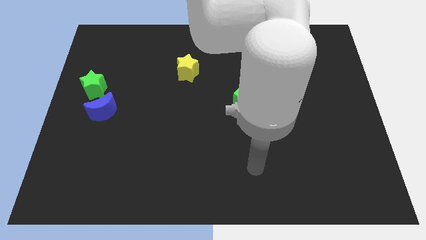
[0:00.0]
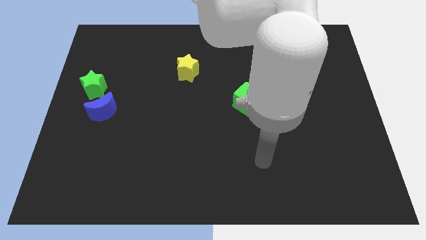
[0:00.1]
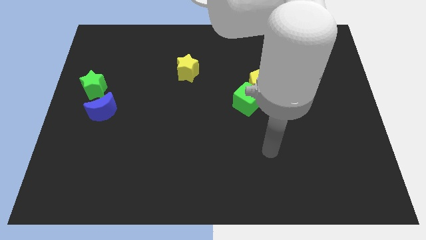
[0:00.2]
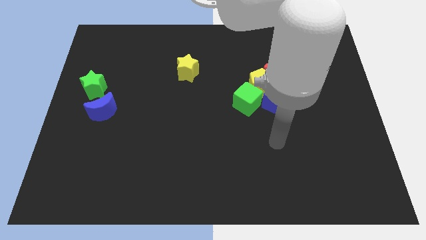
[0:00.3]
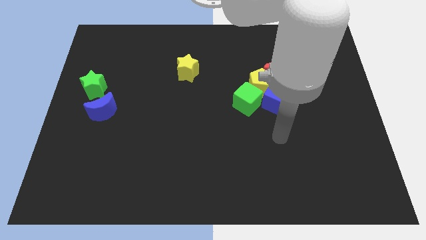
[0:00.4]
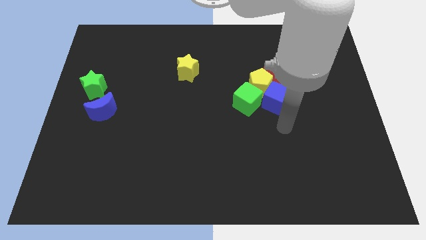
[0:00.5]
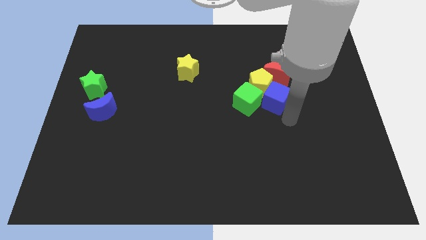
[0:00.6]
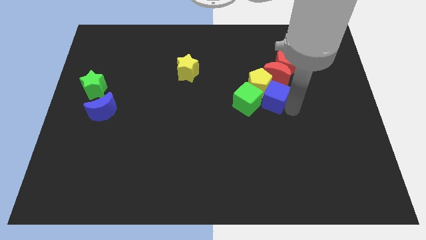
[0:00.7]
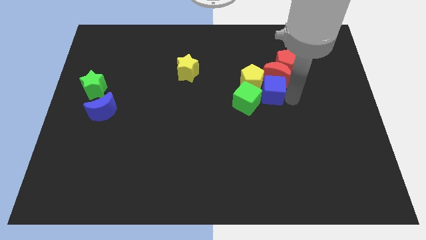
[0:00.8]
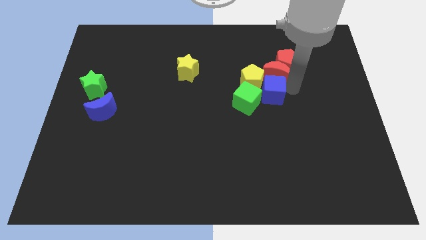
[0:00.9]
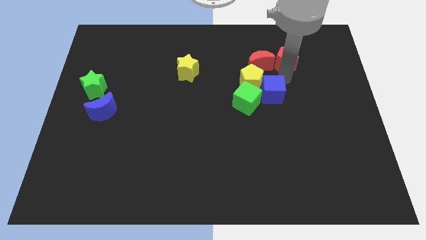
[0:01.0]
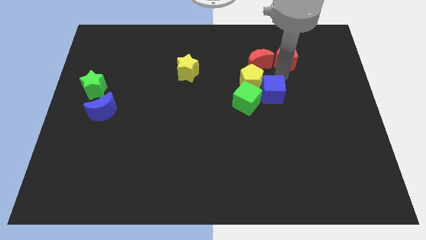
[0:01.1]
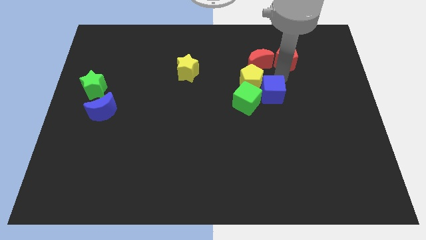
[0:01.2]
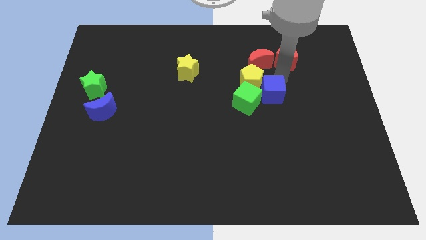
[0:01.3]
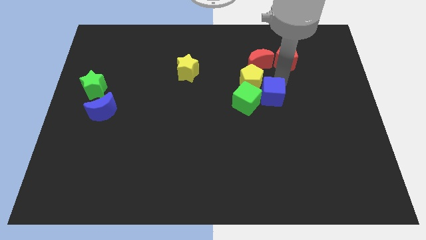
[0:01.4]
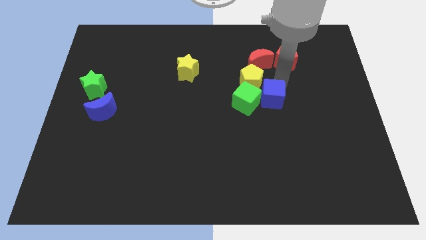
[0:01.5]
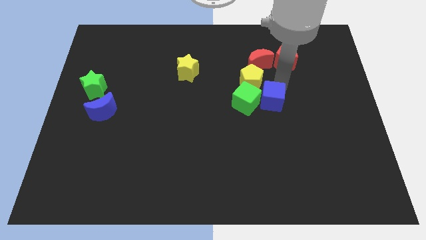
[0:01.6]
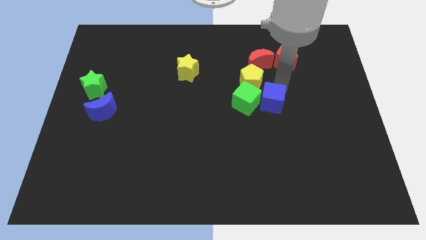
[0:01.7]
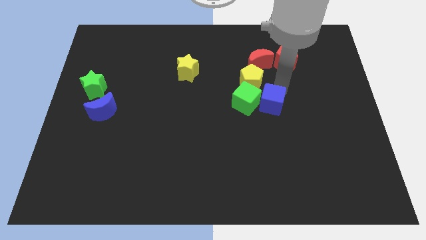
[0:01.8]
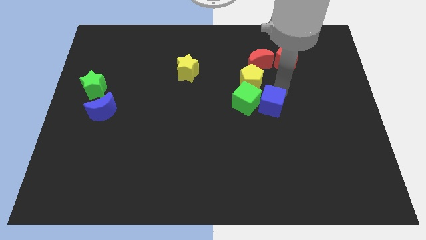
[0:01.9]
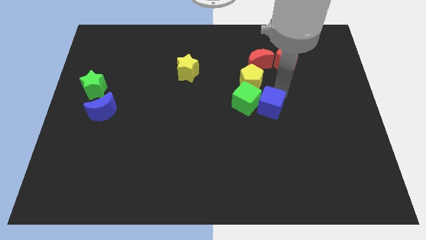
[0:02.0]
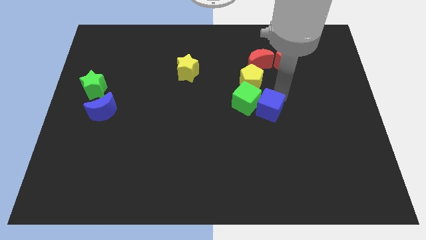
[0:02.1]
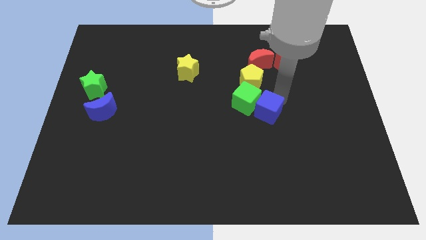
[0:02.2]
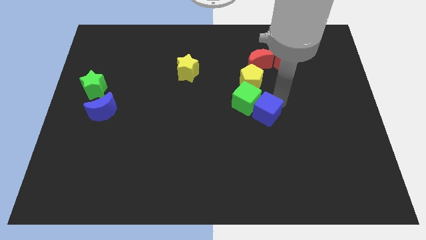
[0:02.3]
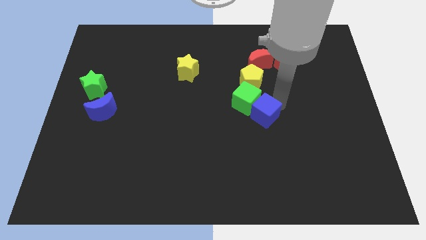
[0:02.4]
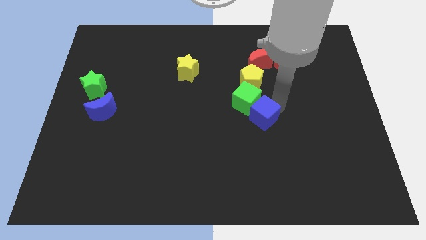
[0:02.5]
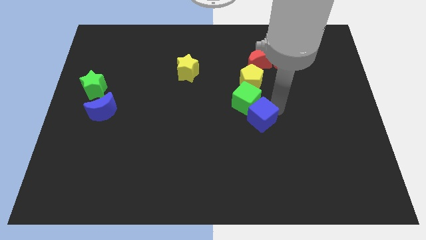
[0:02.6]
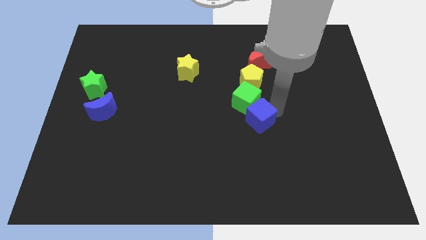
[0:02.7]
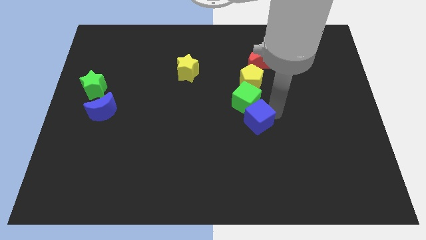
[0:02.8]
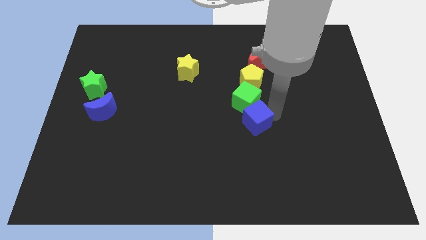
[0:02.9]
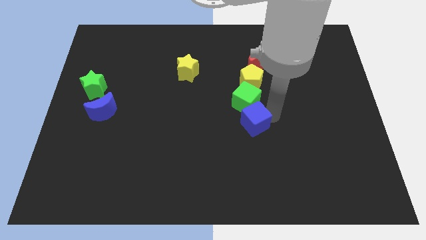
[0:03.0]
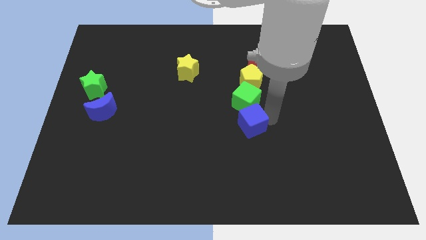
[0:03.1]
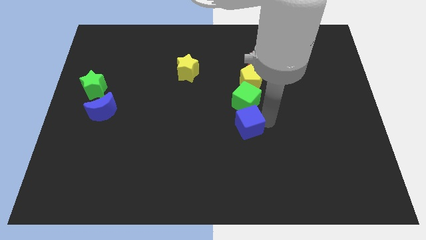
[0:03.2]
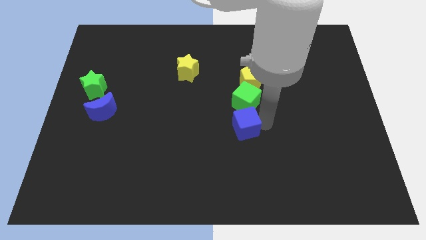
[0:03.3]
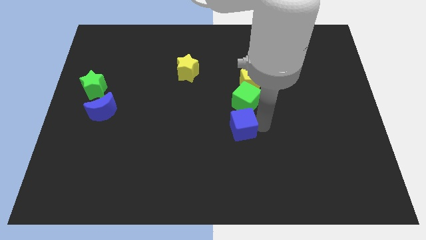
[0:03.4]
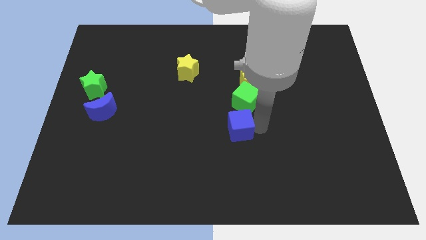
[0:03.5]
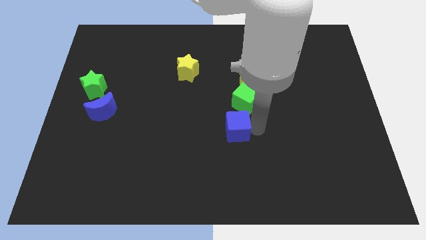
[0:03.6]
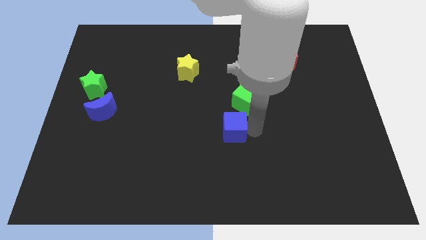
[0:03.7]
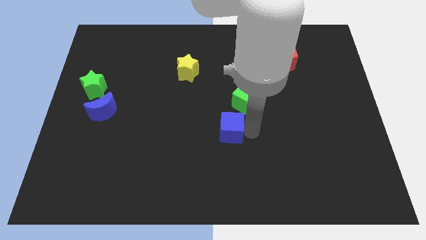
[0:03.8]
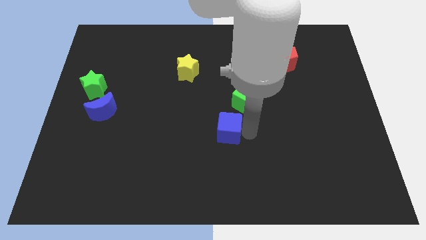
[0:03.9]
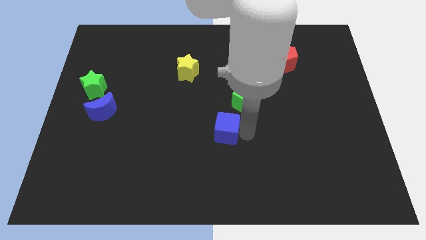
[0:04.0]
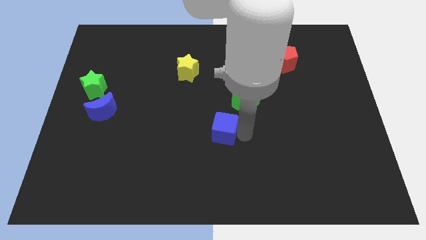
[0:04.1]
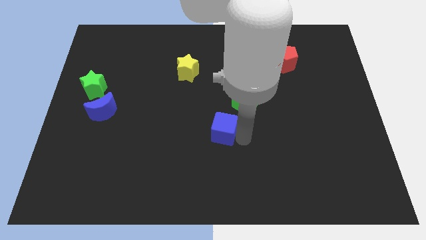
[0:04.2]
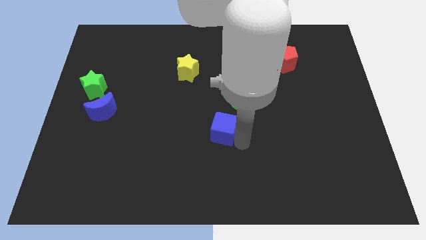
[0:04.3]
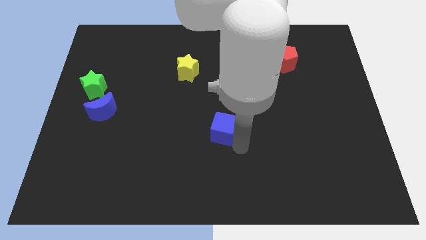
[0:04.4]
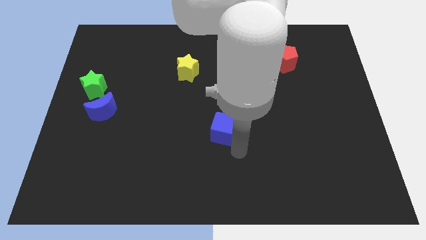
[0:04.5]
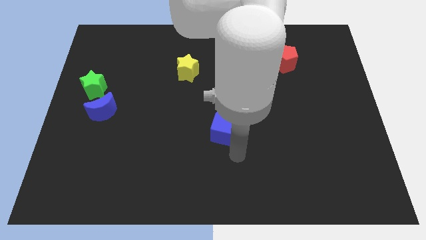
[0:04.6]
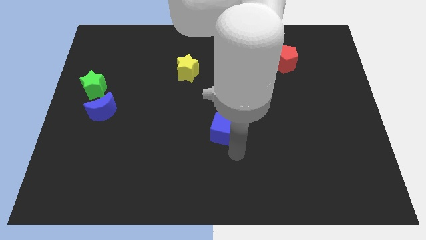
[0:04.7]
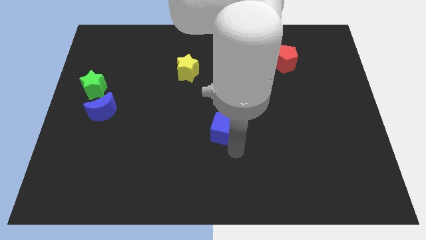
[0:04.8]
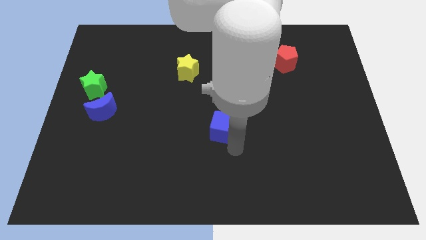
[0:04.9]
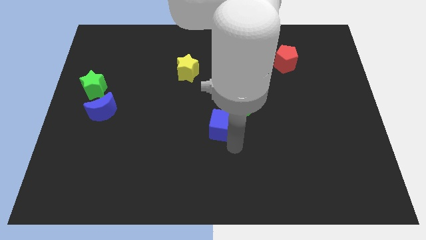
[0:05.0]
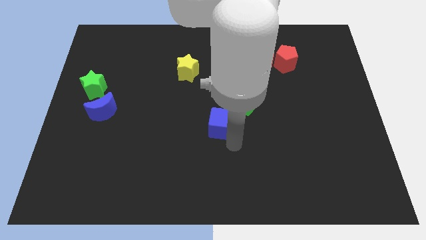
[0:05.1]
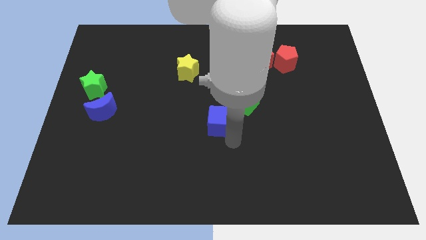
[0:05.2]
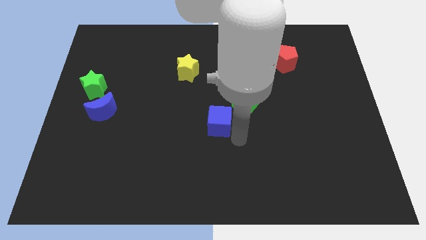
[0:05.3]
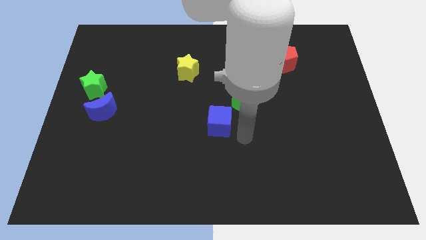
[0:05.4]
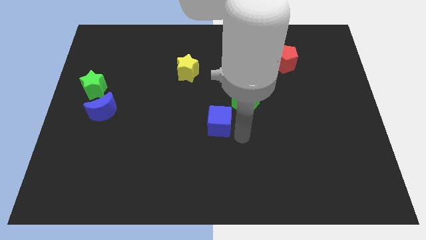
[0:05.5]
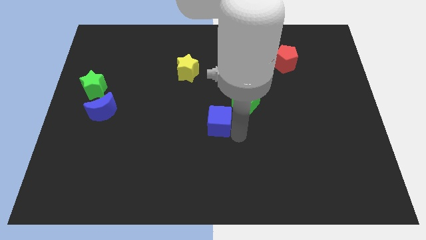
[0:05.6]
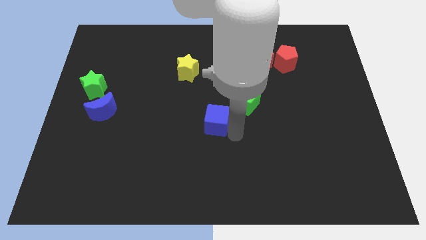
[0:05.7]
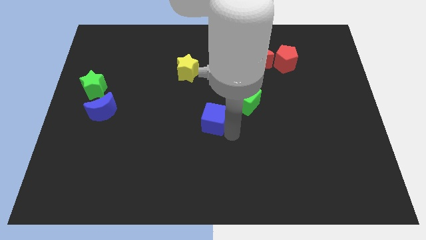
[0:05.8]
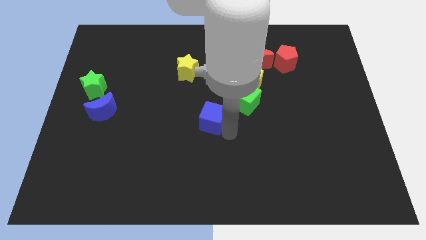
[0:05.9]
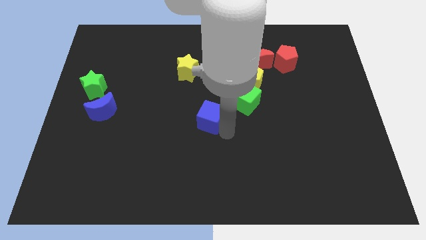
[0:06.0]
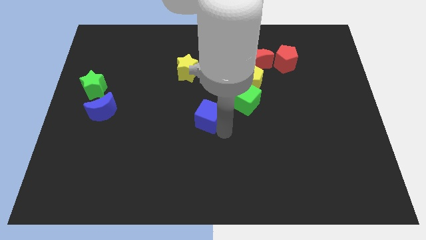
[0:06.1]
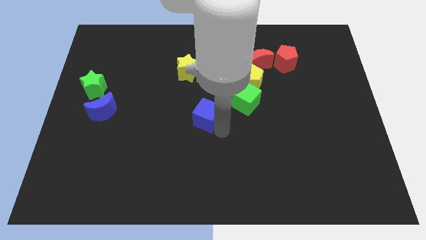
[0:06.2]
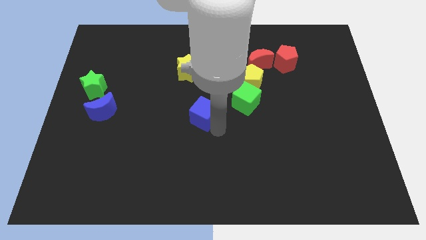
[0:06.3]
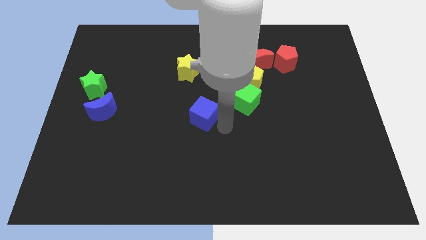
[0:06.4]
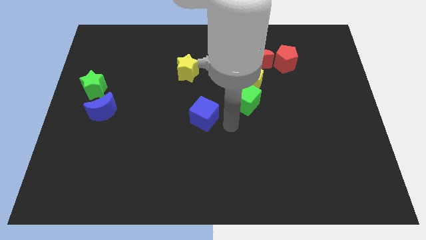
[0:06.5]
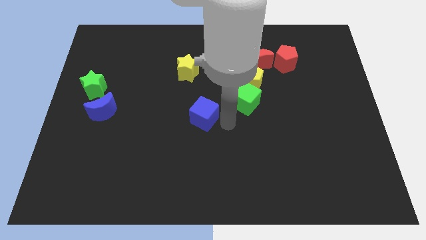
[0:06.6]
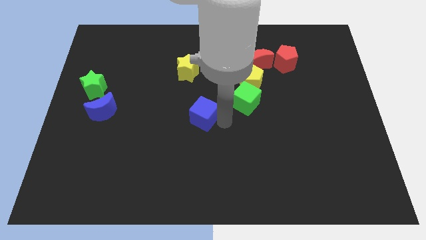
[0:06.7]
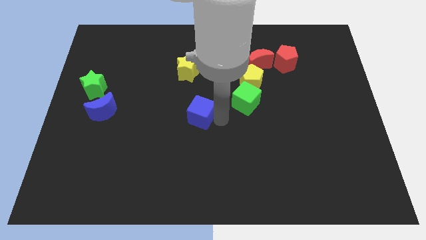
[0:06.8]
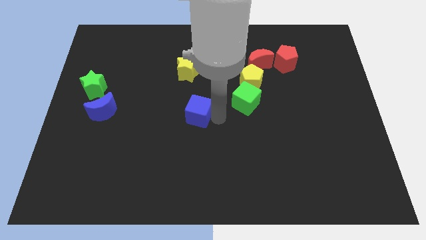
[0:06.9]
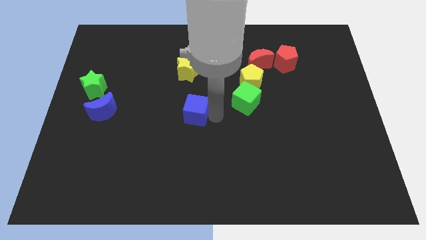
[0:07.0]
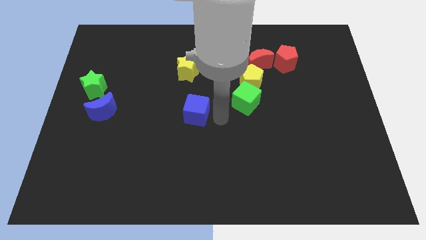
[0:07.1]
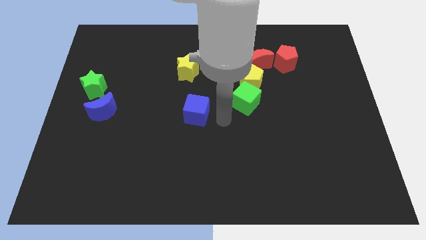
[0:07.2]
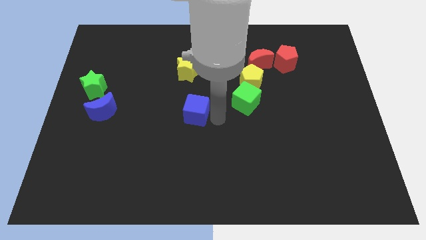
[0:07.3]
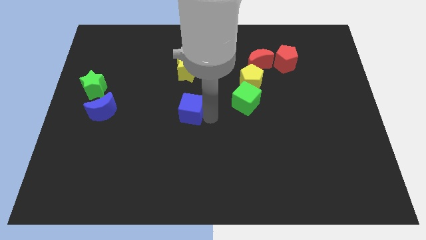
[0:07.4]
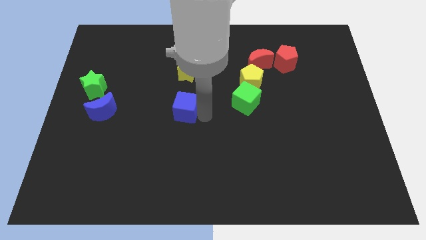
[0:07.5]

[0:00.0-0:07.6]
push the blue cube left

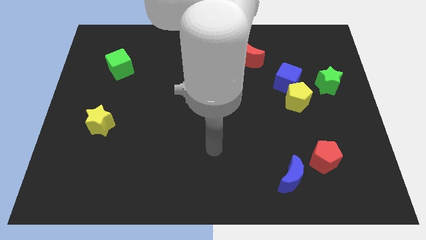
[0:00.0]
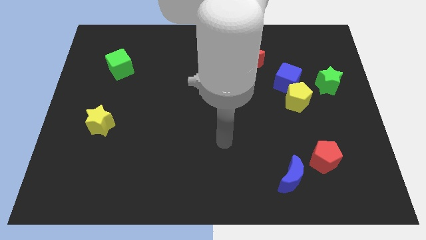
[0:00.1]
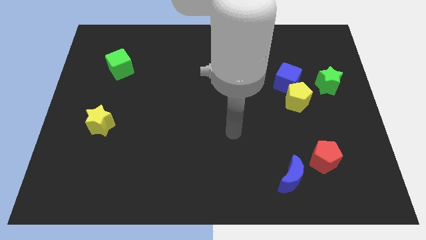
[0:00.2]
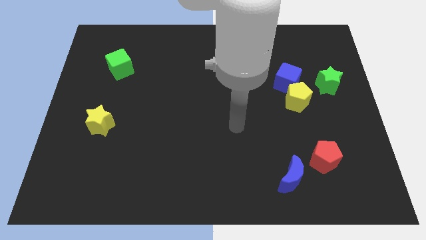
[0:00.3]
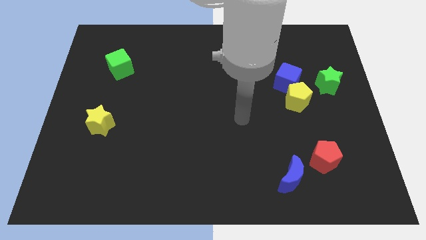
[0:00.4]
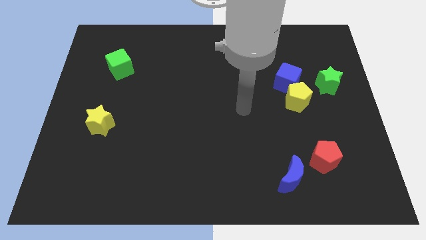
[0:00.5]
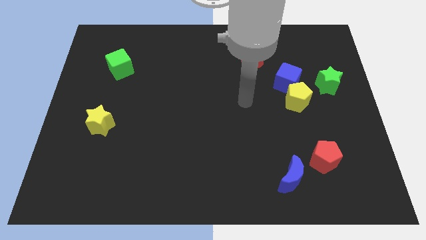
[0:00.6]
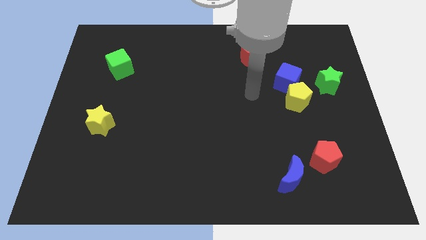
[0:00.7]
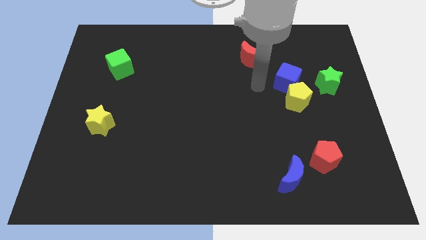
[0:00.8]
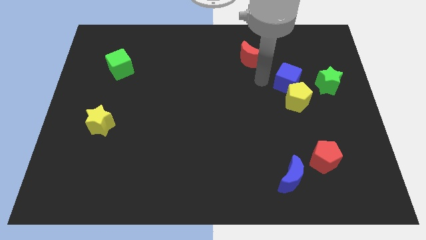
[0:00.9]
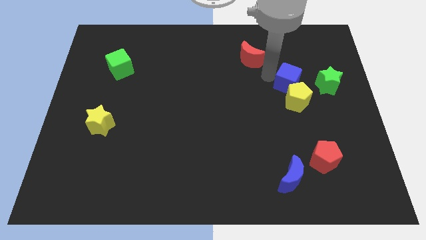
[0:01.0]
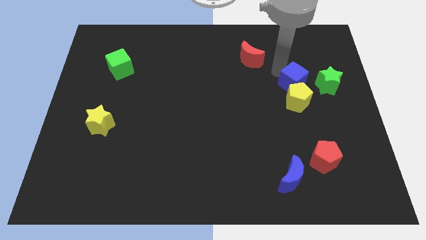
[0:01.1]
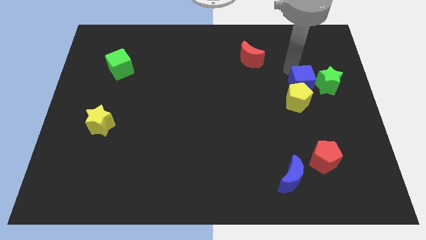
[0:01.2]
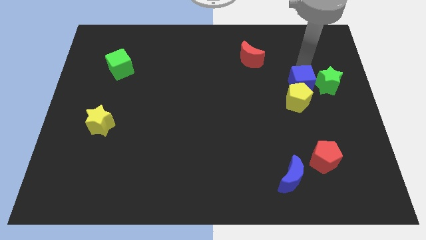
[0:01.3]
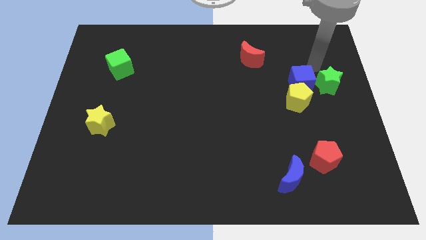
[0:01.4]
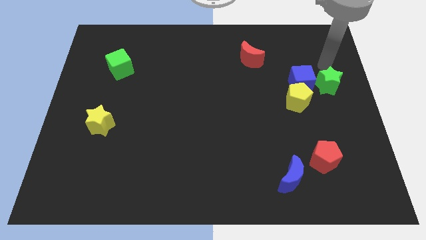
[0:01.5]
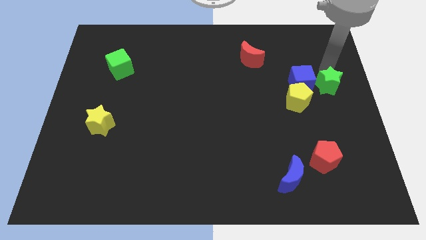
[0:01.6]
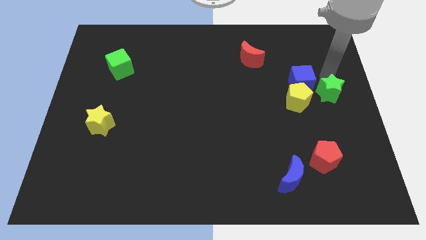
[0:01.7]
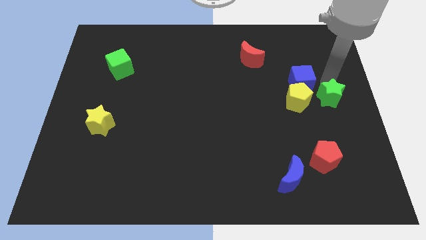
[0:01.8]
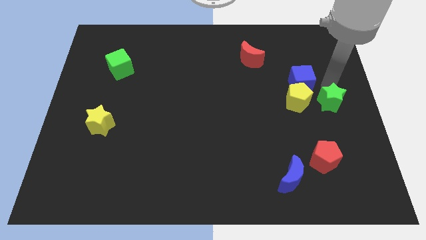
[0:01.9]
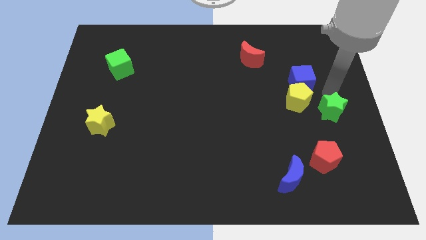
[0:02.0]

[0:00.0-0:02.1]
push the green star down a bit
